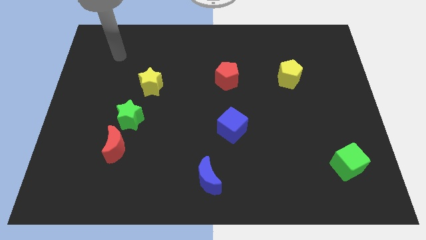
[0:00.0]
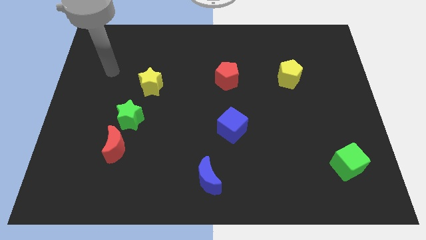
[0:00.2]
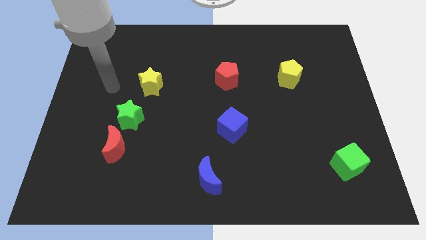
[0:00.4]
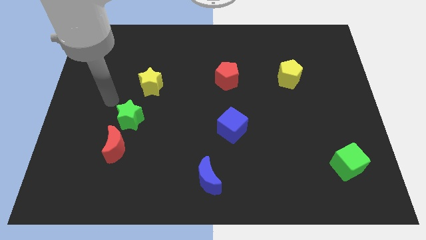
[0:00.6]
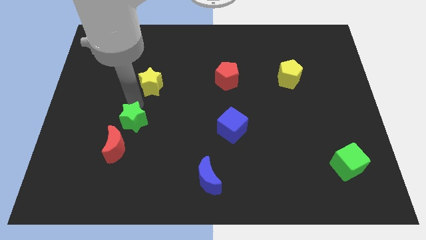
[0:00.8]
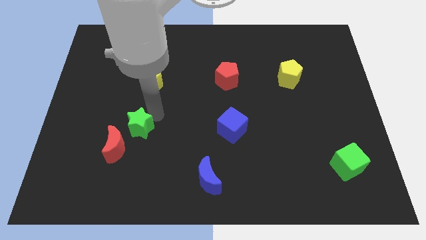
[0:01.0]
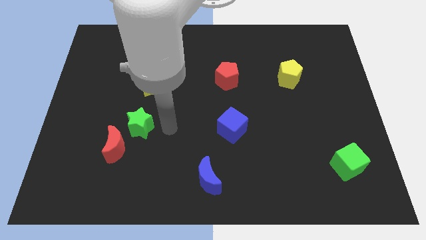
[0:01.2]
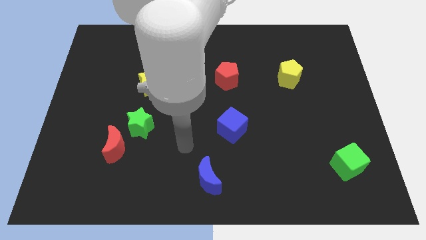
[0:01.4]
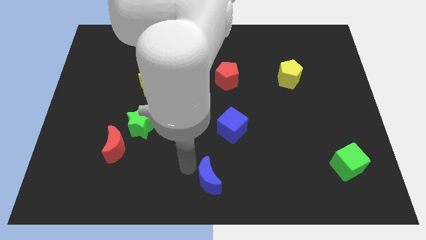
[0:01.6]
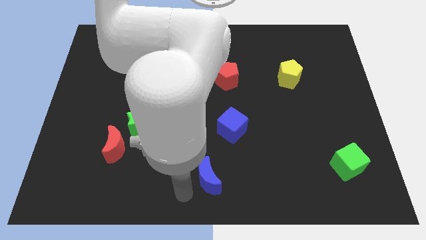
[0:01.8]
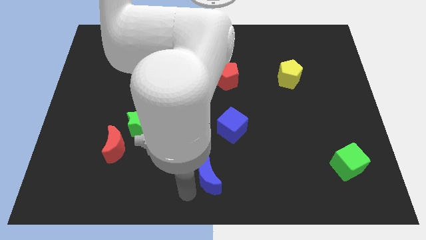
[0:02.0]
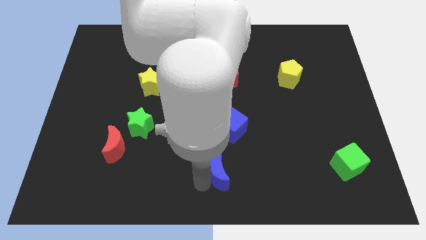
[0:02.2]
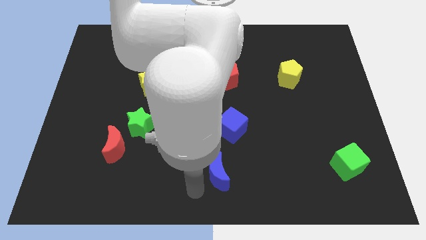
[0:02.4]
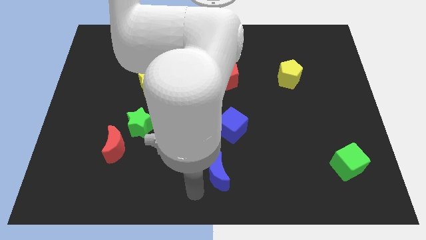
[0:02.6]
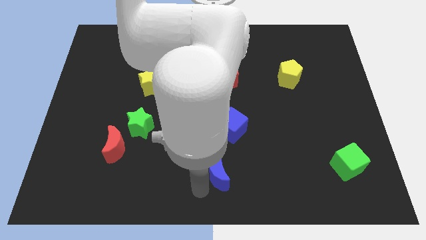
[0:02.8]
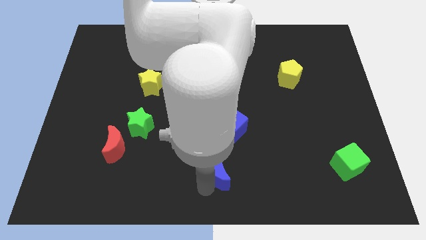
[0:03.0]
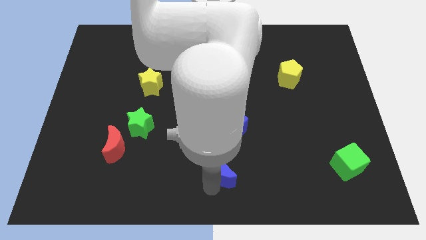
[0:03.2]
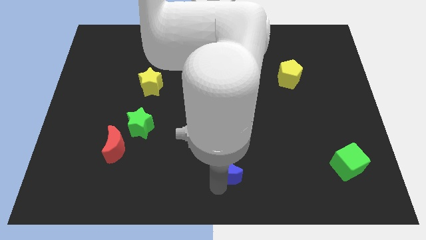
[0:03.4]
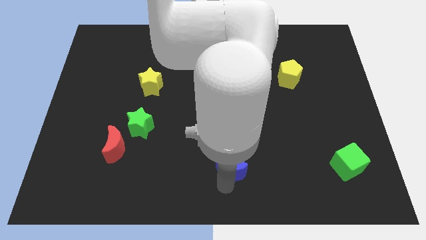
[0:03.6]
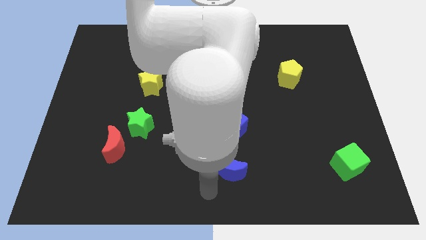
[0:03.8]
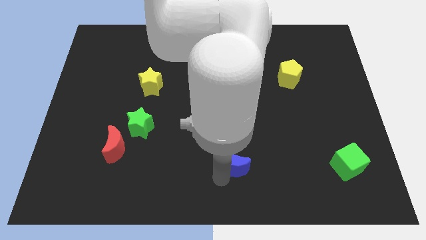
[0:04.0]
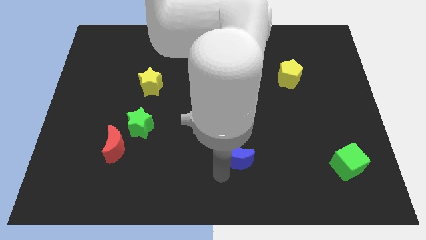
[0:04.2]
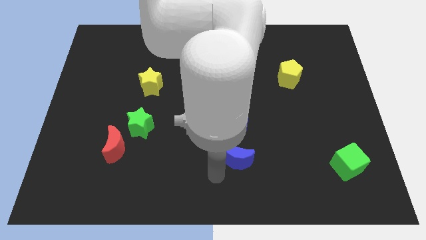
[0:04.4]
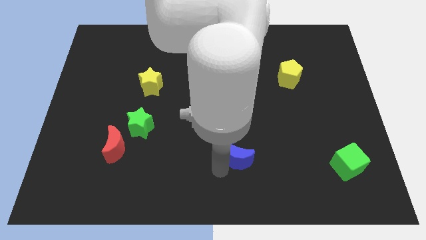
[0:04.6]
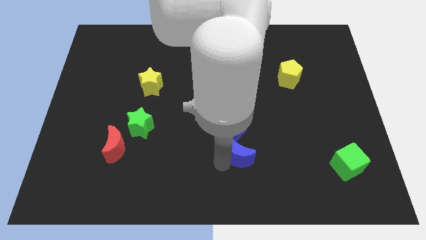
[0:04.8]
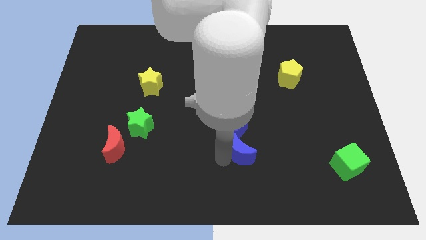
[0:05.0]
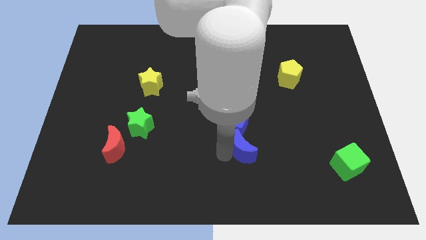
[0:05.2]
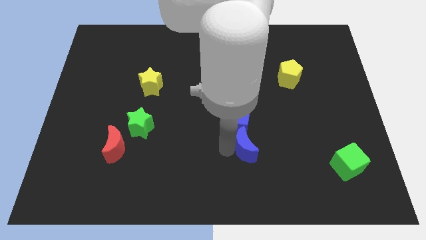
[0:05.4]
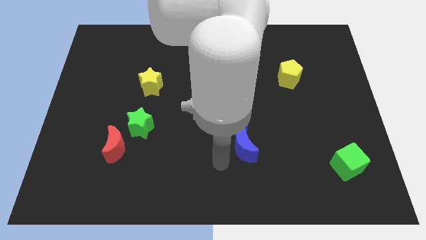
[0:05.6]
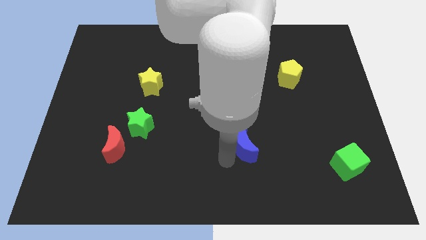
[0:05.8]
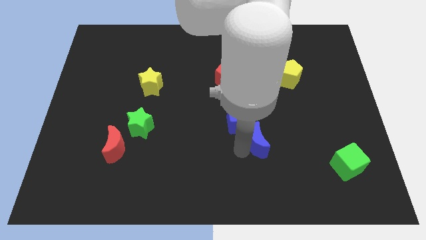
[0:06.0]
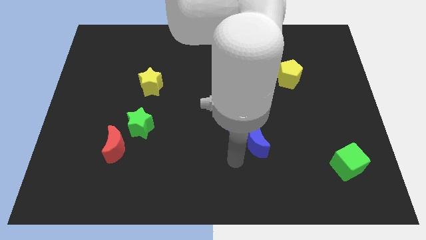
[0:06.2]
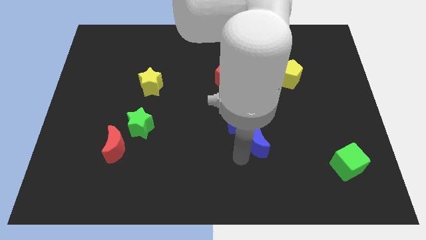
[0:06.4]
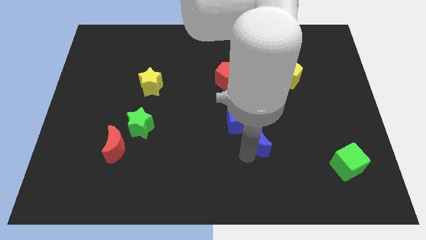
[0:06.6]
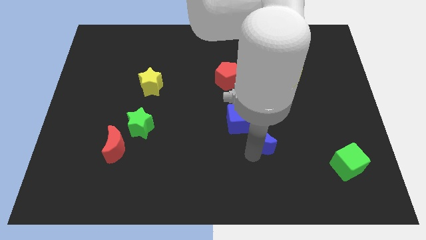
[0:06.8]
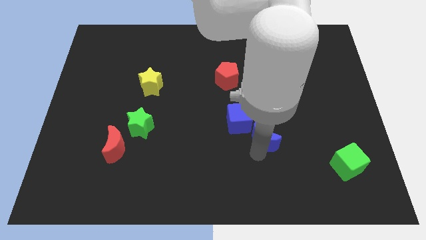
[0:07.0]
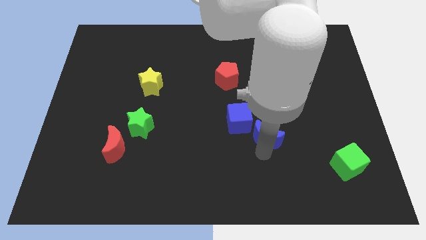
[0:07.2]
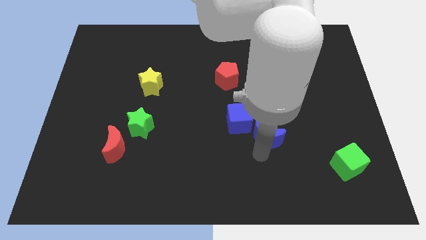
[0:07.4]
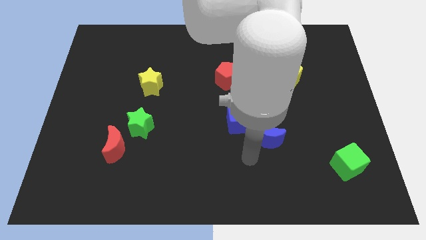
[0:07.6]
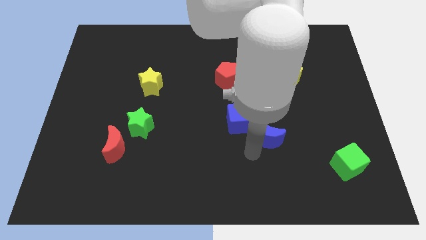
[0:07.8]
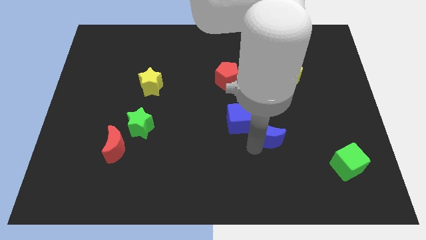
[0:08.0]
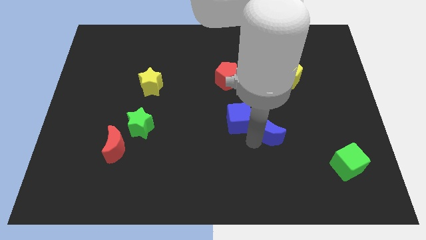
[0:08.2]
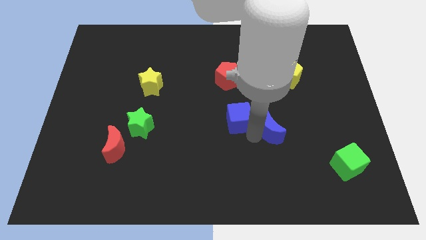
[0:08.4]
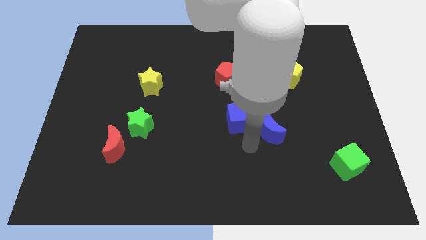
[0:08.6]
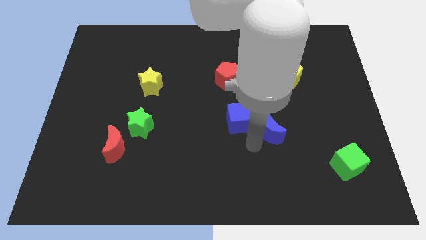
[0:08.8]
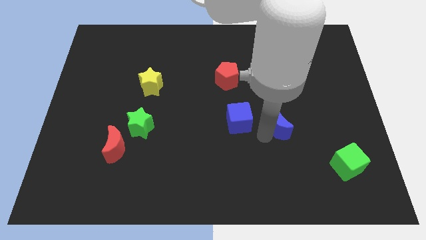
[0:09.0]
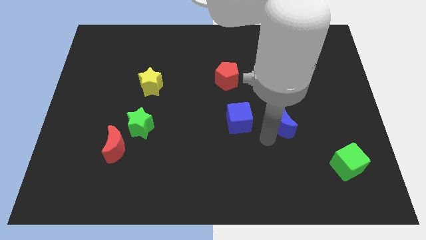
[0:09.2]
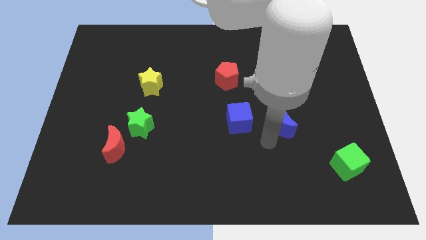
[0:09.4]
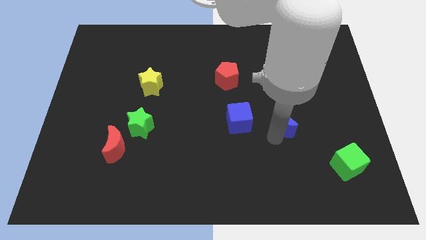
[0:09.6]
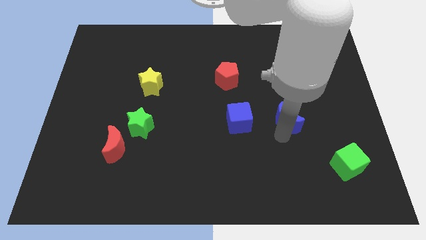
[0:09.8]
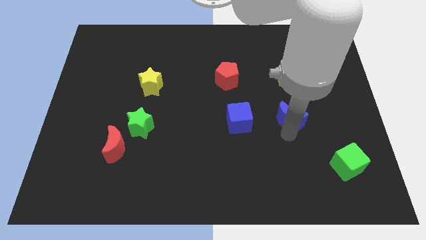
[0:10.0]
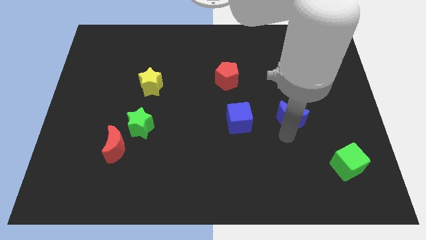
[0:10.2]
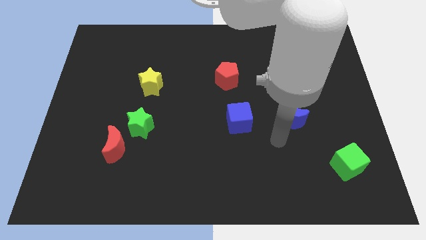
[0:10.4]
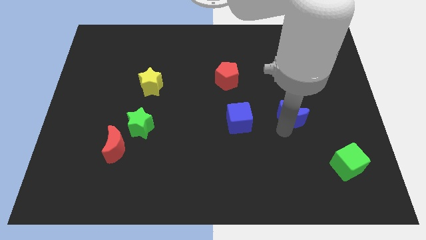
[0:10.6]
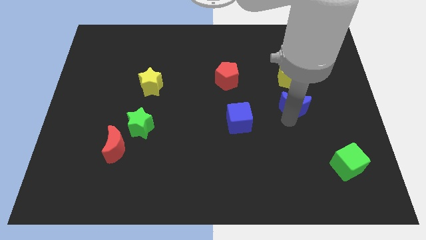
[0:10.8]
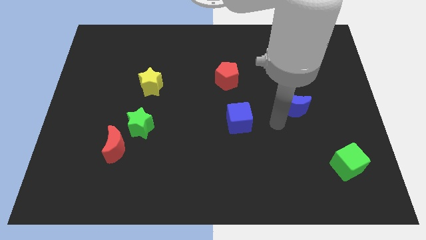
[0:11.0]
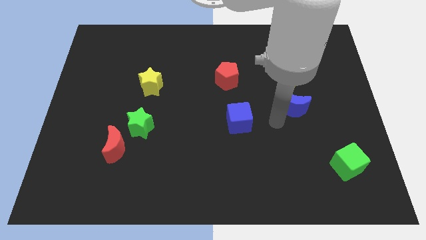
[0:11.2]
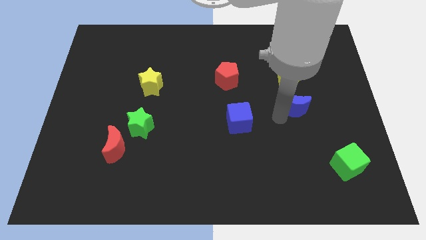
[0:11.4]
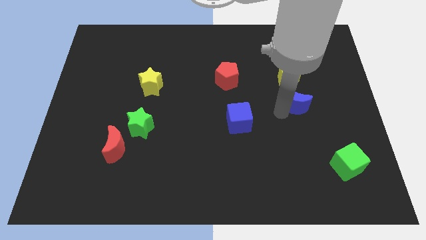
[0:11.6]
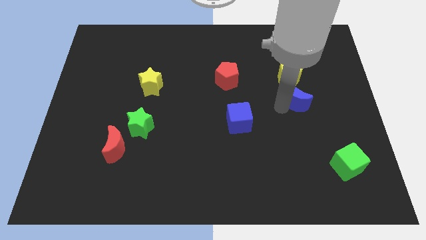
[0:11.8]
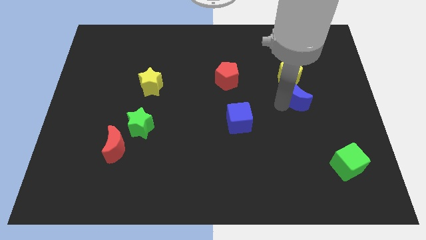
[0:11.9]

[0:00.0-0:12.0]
slide the blue moon diagonally down and to the right of the yellow pentagon
